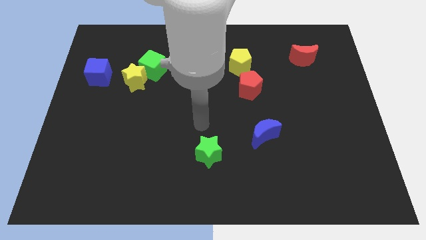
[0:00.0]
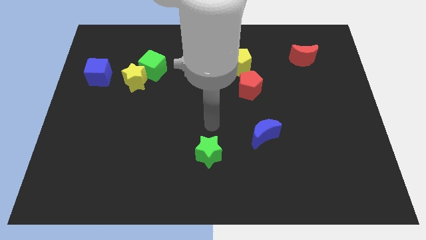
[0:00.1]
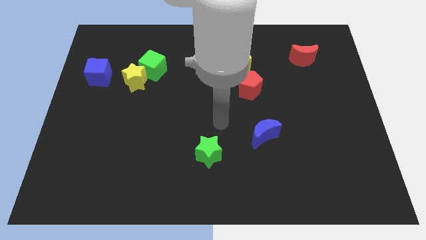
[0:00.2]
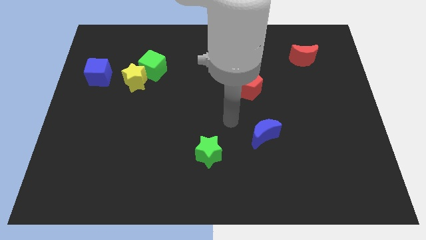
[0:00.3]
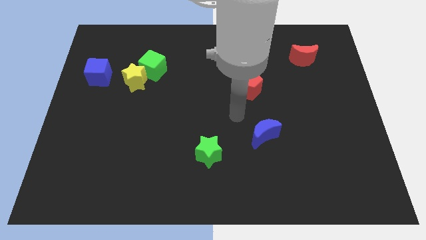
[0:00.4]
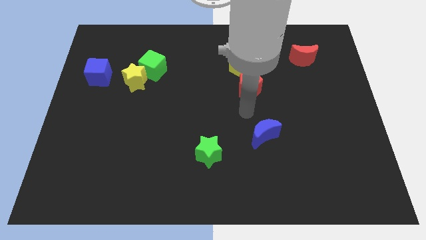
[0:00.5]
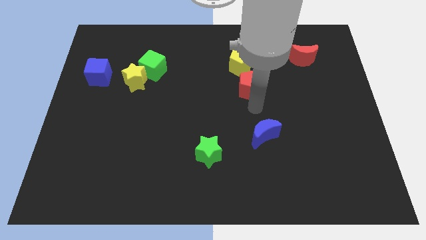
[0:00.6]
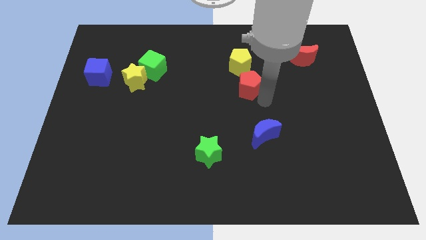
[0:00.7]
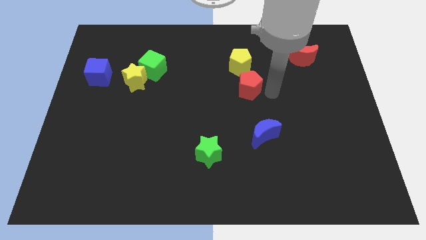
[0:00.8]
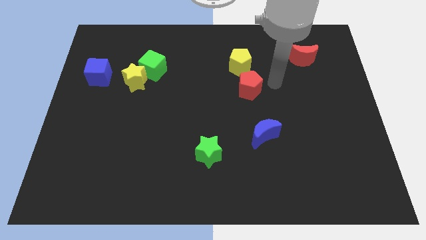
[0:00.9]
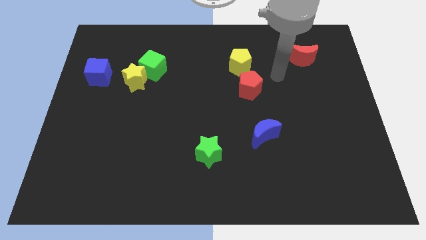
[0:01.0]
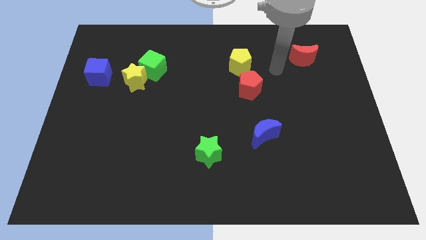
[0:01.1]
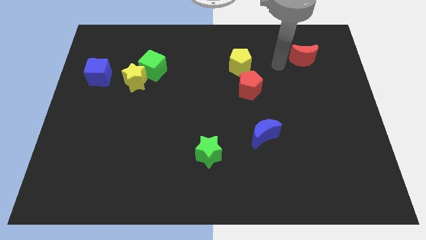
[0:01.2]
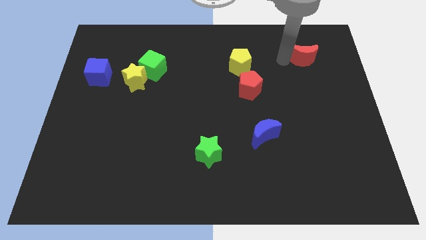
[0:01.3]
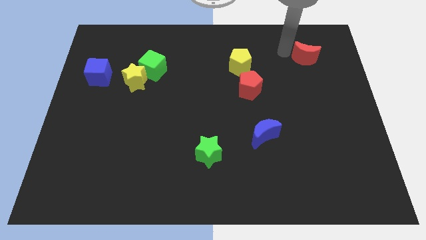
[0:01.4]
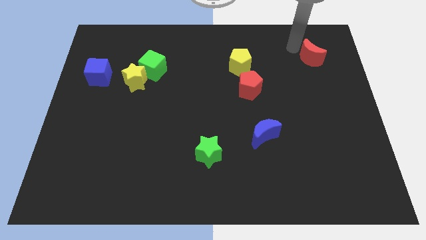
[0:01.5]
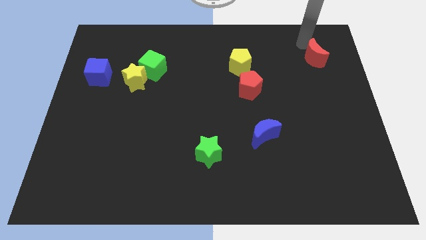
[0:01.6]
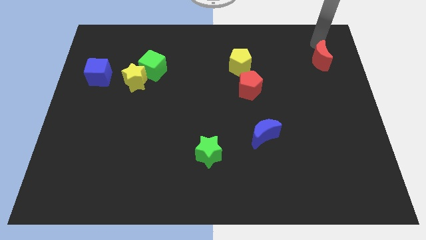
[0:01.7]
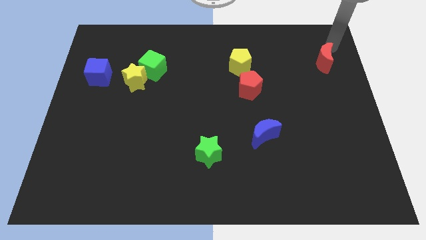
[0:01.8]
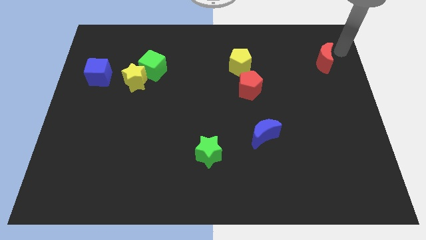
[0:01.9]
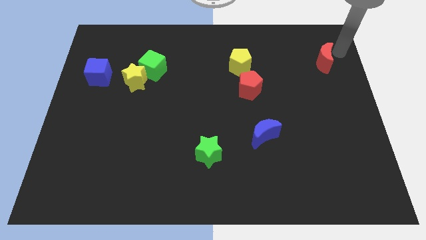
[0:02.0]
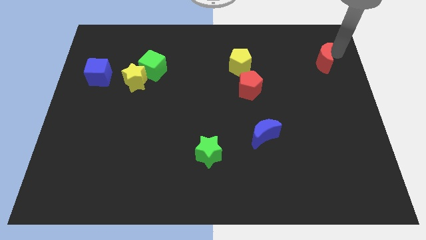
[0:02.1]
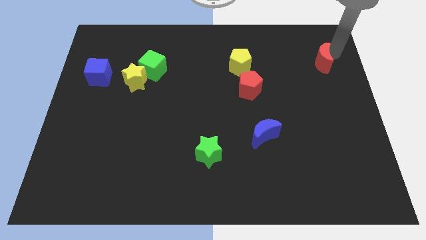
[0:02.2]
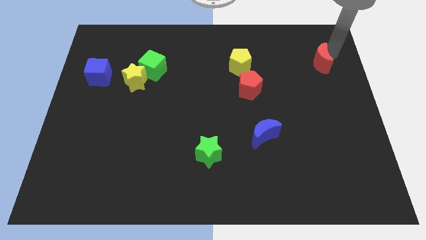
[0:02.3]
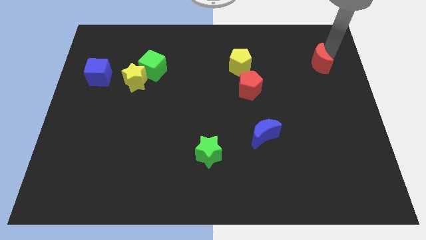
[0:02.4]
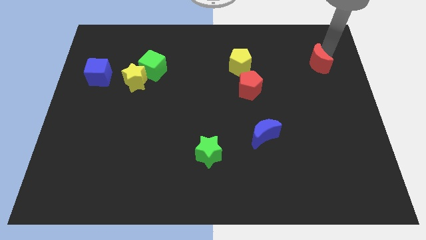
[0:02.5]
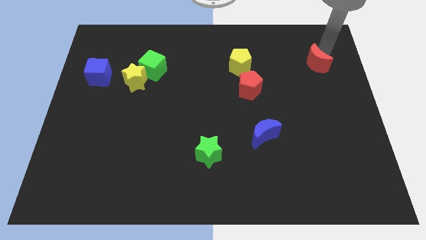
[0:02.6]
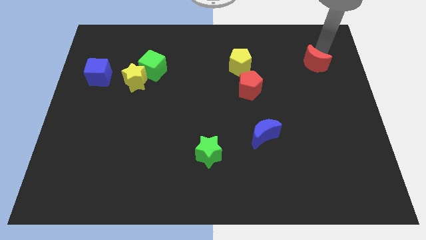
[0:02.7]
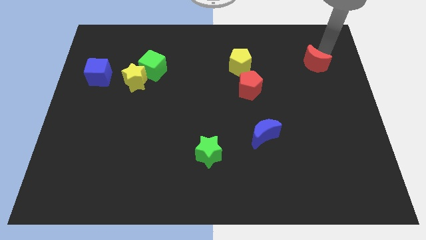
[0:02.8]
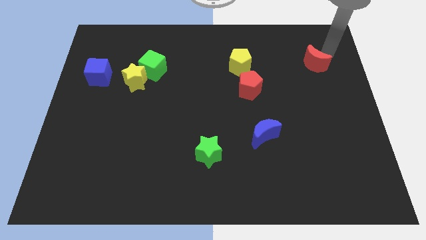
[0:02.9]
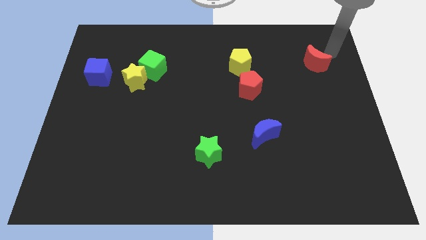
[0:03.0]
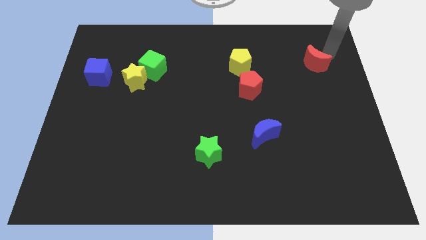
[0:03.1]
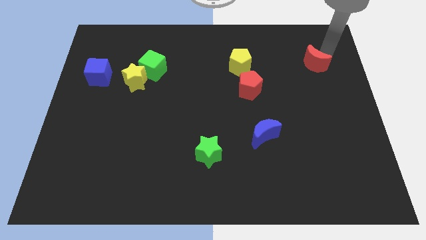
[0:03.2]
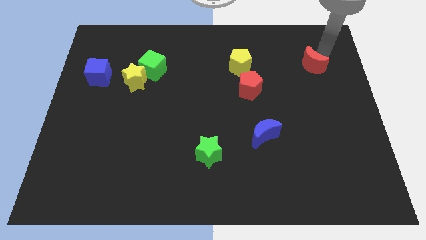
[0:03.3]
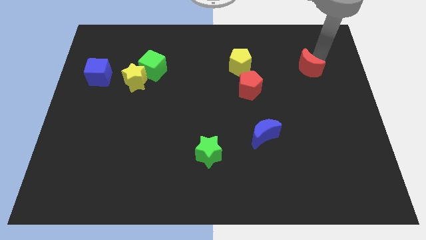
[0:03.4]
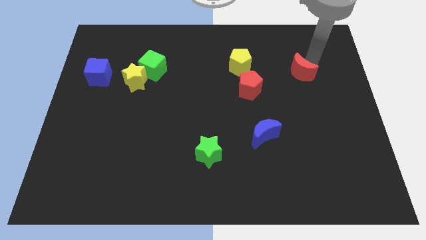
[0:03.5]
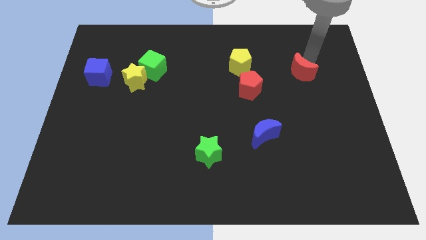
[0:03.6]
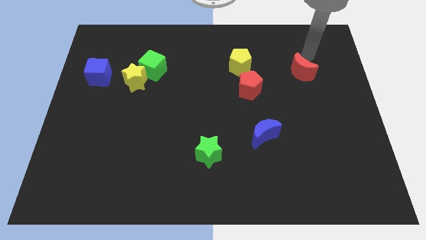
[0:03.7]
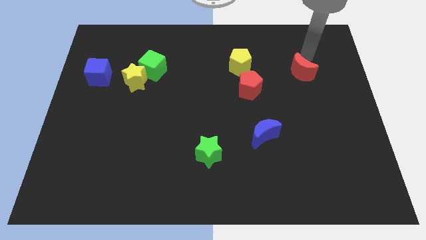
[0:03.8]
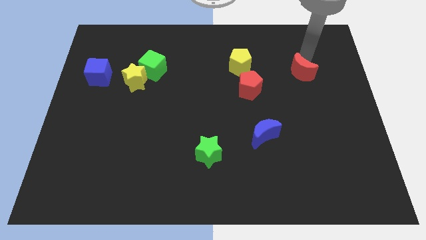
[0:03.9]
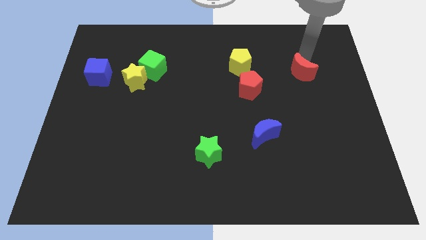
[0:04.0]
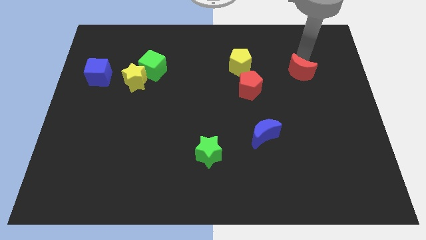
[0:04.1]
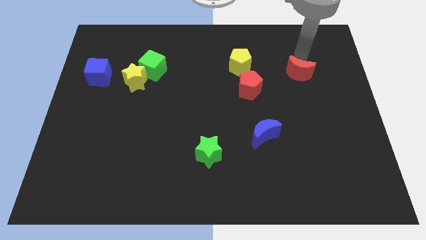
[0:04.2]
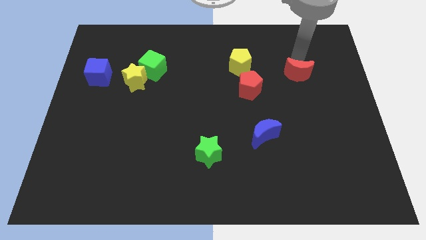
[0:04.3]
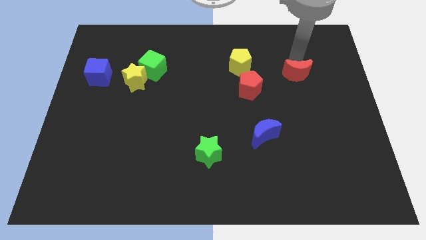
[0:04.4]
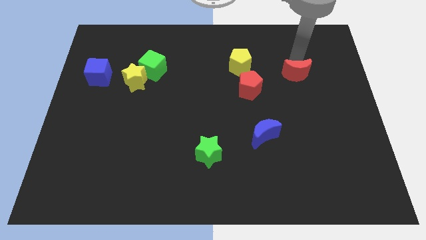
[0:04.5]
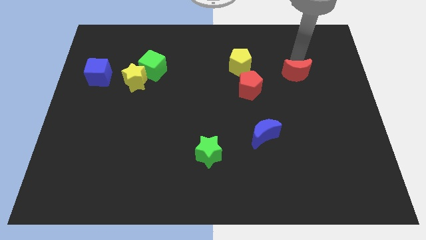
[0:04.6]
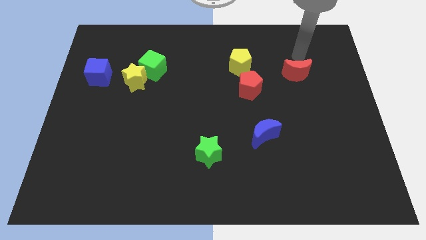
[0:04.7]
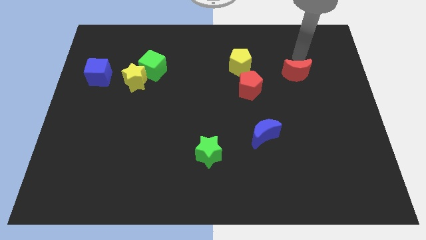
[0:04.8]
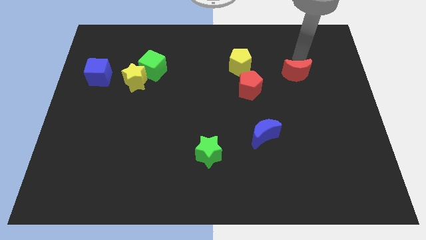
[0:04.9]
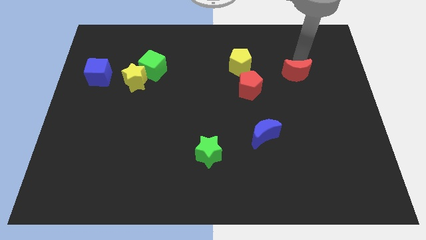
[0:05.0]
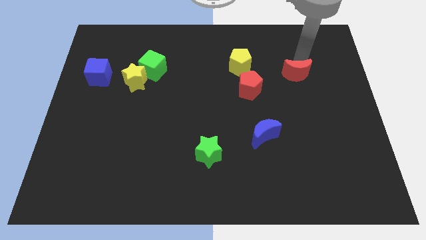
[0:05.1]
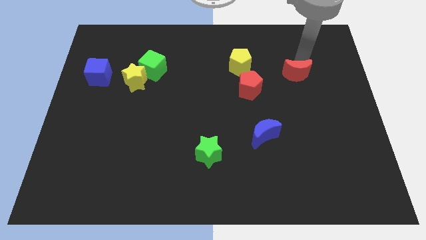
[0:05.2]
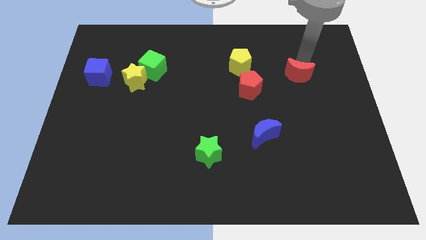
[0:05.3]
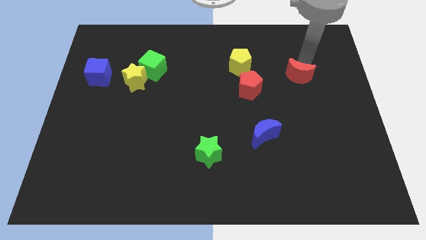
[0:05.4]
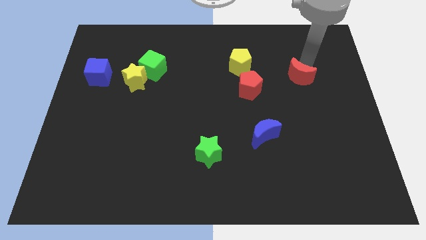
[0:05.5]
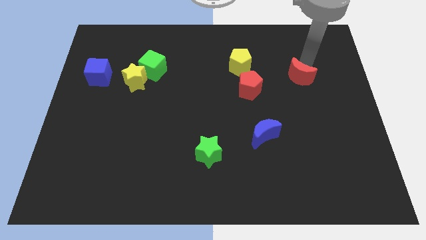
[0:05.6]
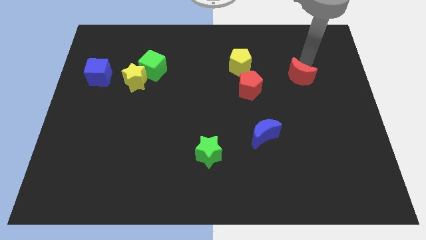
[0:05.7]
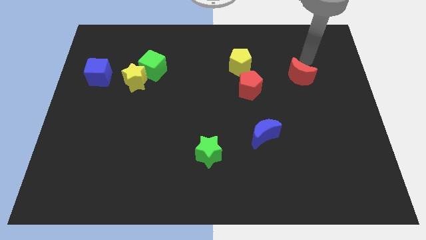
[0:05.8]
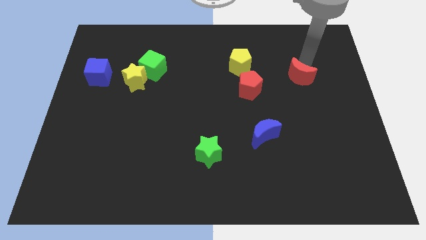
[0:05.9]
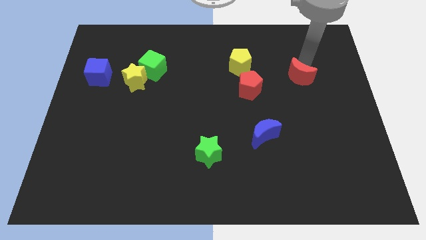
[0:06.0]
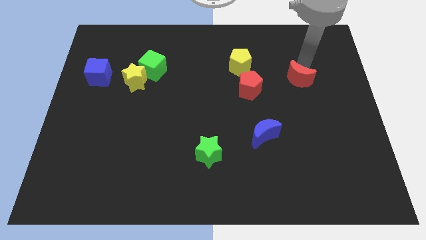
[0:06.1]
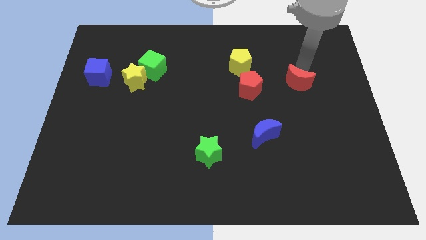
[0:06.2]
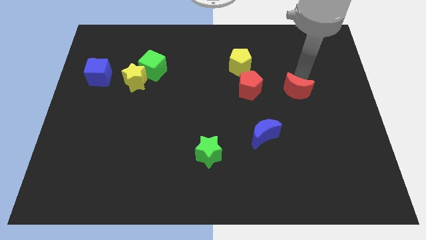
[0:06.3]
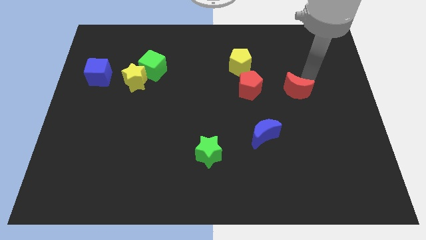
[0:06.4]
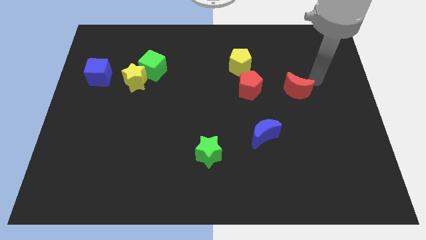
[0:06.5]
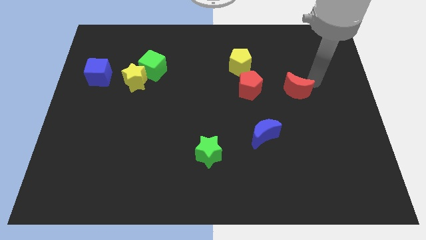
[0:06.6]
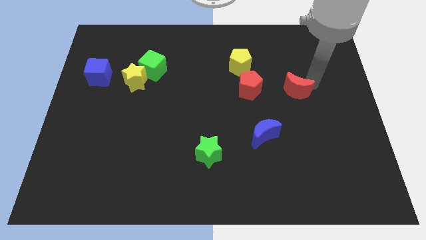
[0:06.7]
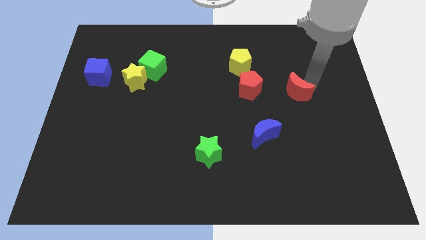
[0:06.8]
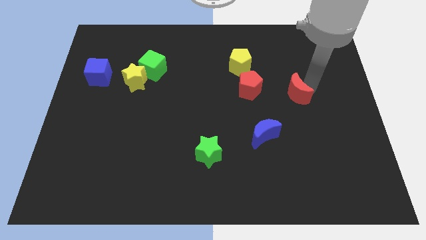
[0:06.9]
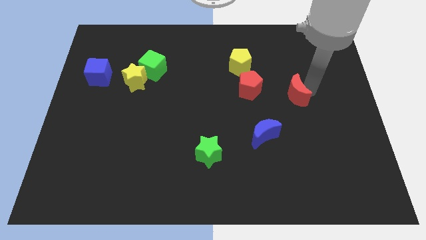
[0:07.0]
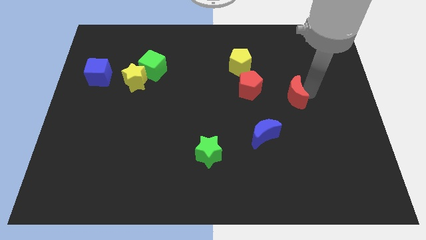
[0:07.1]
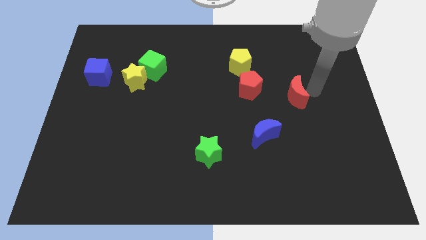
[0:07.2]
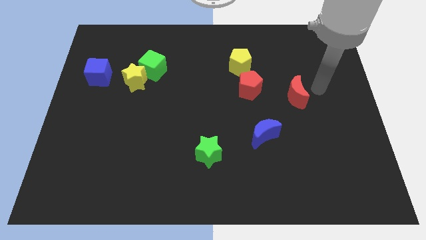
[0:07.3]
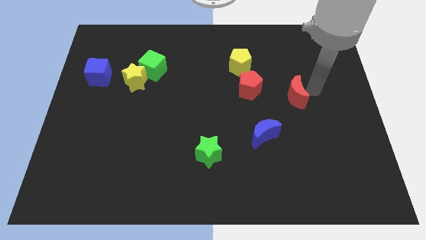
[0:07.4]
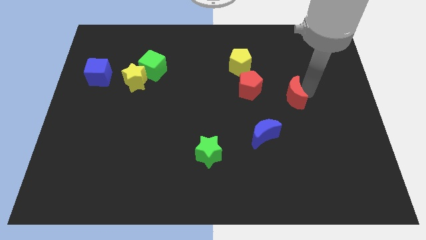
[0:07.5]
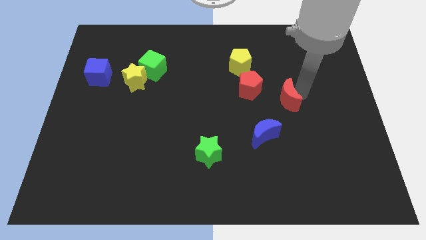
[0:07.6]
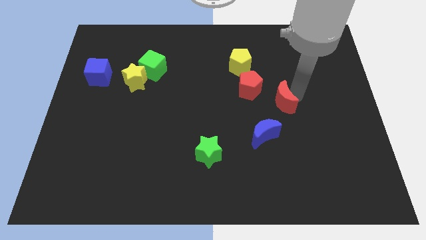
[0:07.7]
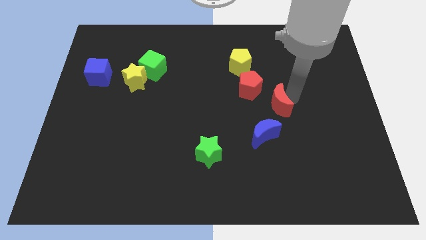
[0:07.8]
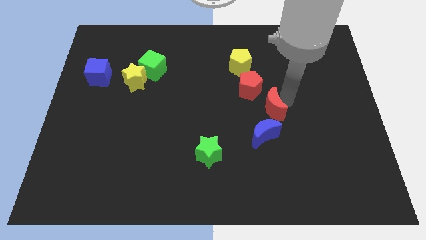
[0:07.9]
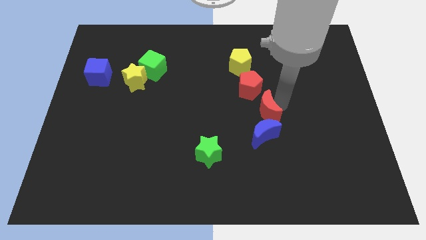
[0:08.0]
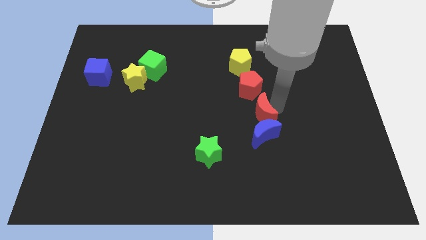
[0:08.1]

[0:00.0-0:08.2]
move the red moon down and to the left

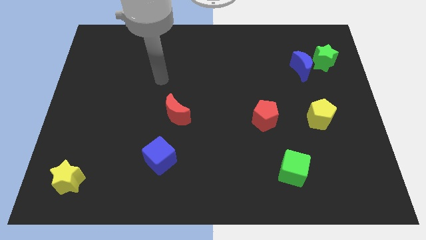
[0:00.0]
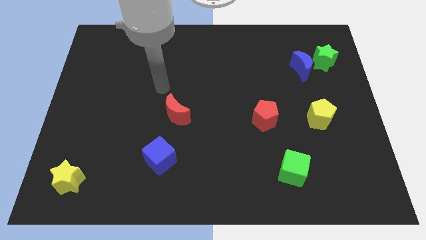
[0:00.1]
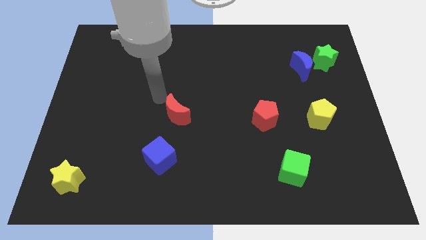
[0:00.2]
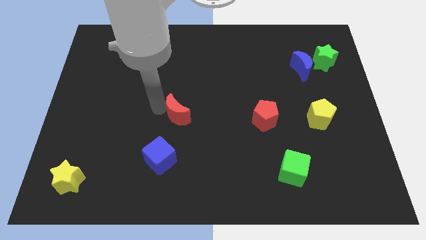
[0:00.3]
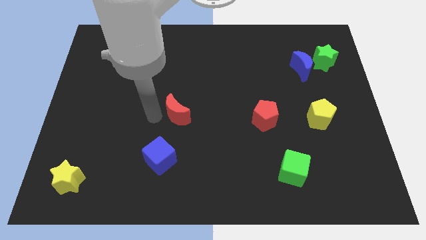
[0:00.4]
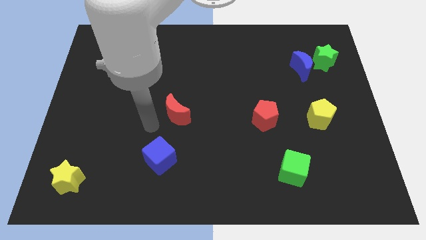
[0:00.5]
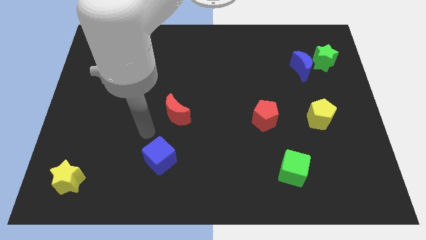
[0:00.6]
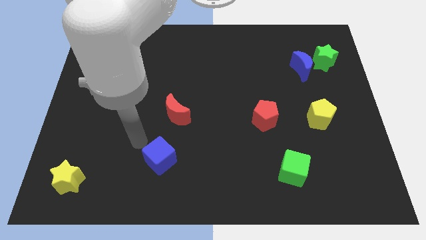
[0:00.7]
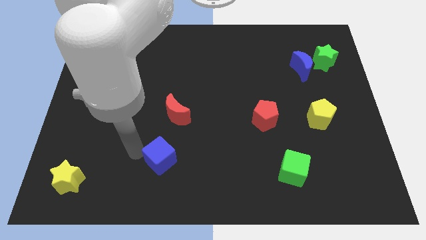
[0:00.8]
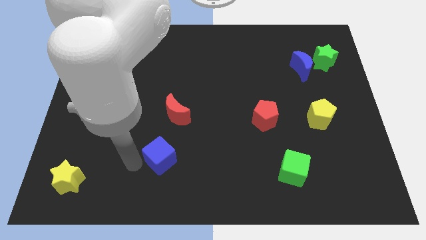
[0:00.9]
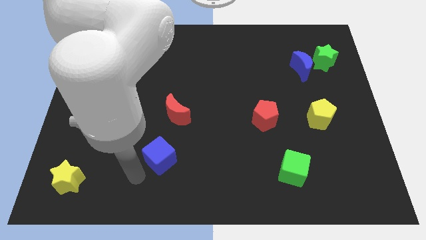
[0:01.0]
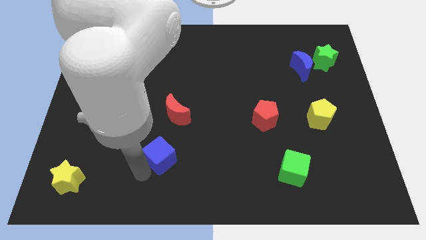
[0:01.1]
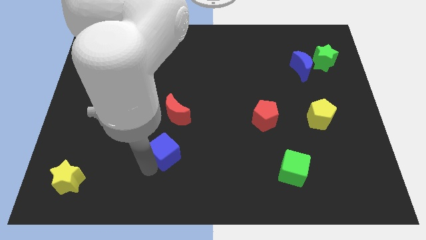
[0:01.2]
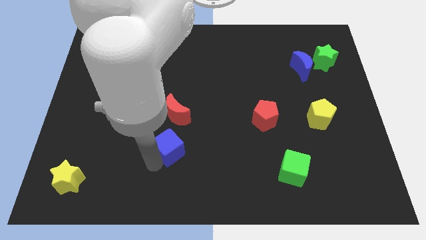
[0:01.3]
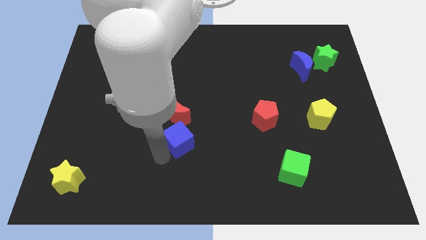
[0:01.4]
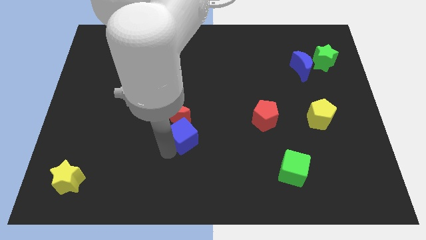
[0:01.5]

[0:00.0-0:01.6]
push the blue cube up and then right a little bit
